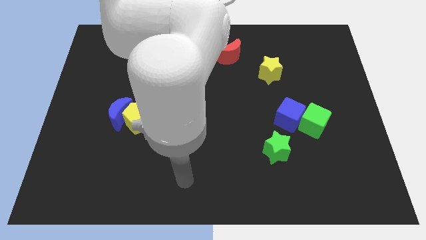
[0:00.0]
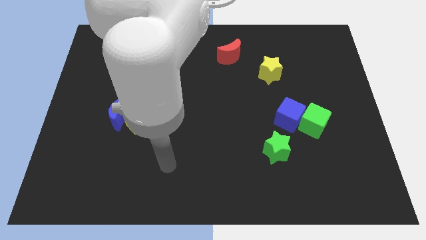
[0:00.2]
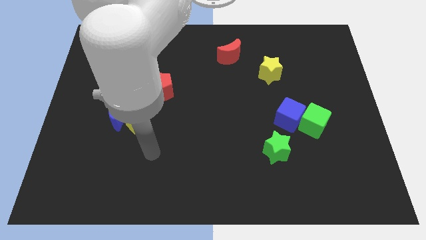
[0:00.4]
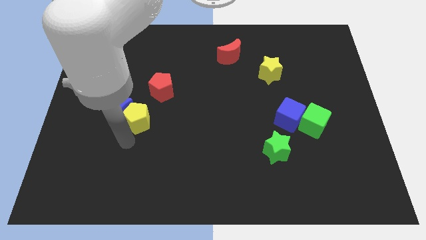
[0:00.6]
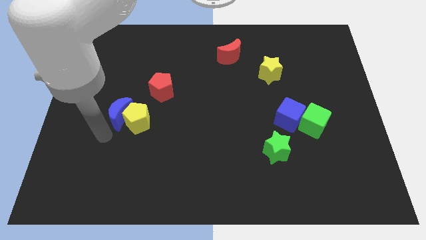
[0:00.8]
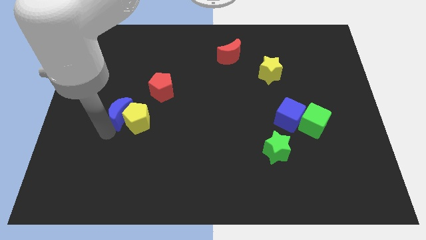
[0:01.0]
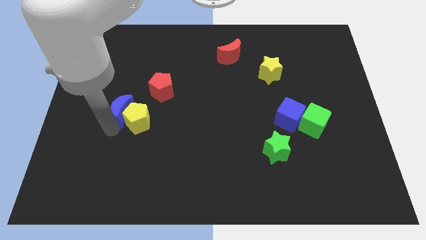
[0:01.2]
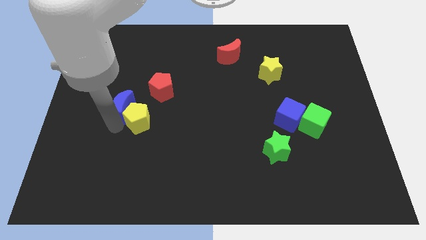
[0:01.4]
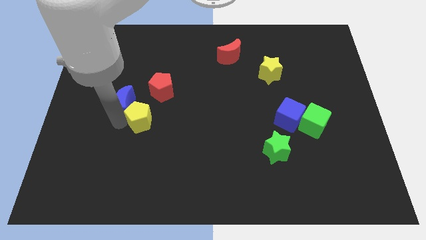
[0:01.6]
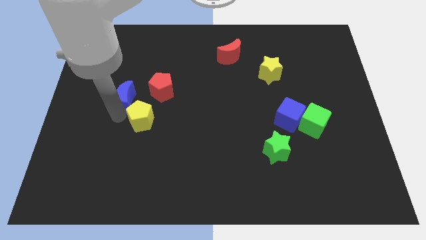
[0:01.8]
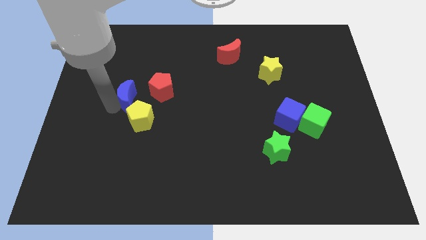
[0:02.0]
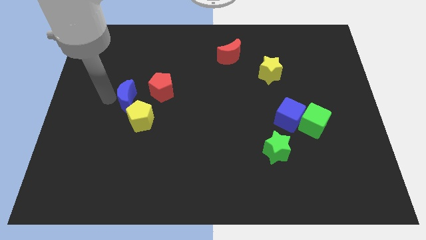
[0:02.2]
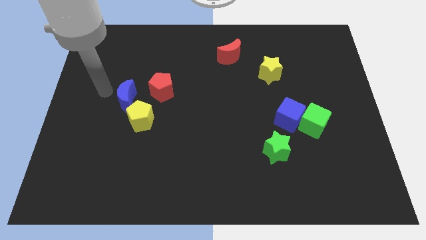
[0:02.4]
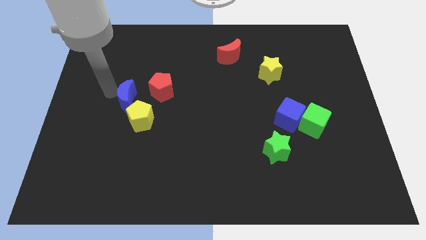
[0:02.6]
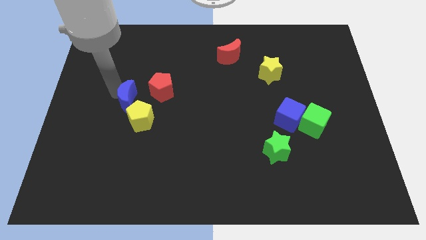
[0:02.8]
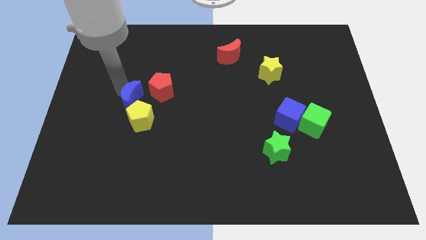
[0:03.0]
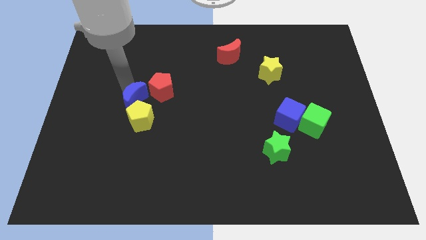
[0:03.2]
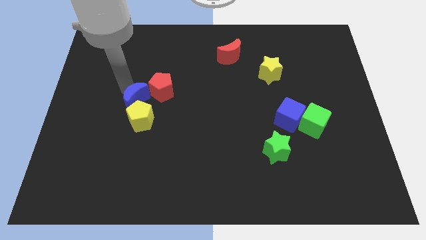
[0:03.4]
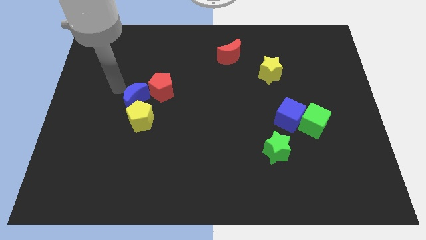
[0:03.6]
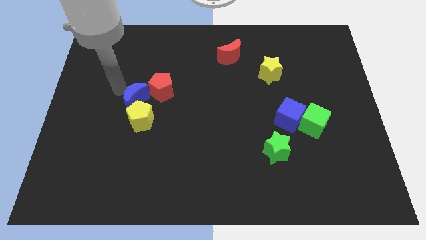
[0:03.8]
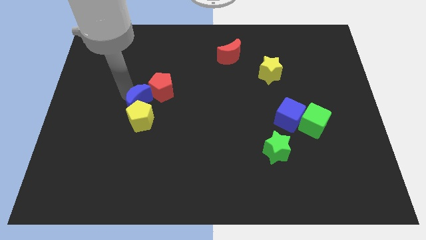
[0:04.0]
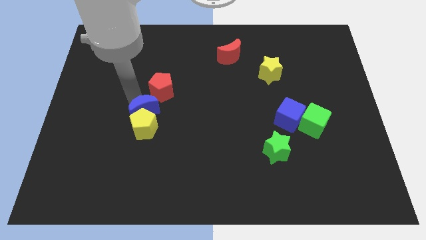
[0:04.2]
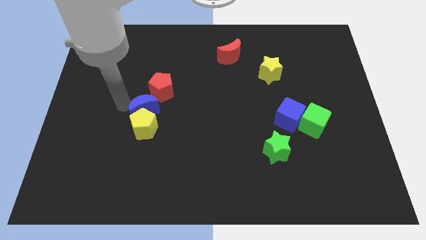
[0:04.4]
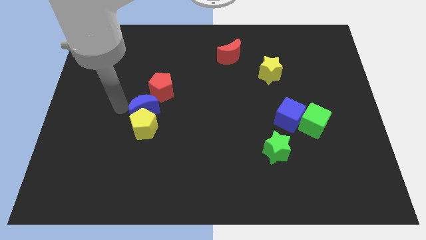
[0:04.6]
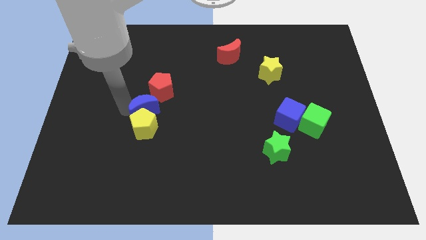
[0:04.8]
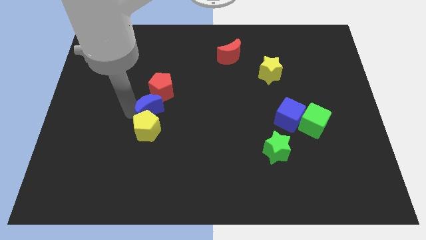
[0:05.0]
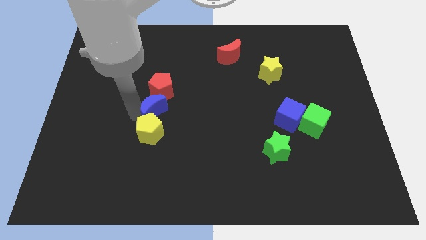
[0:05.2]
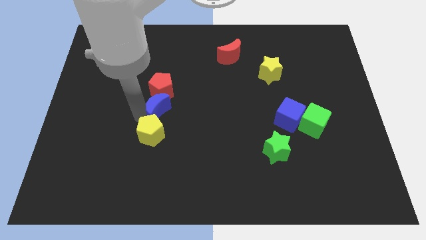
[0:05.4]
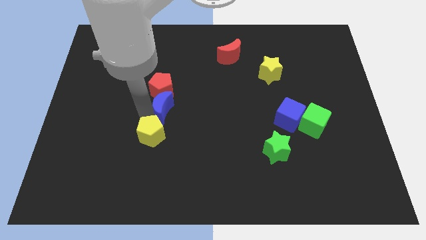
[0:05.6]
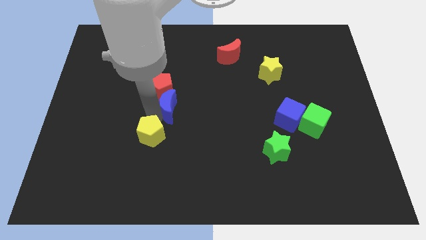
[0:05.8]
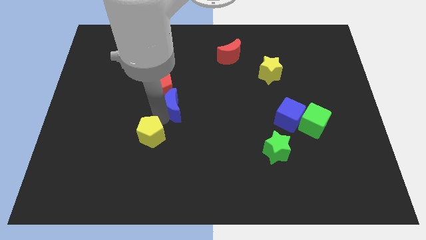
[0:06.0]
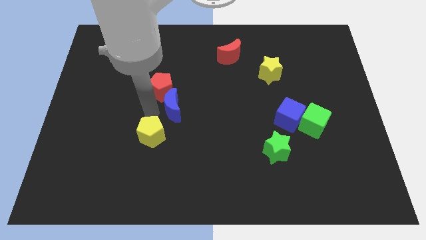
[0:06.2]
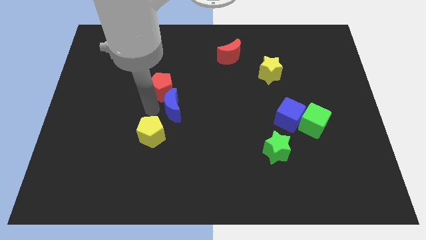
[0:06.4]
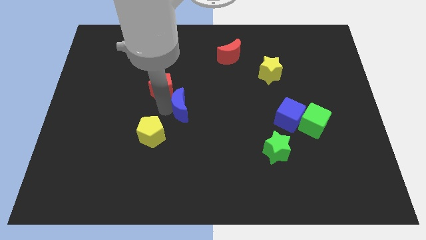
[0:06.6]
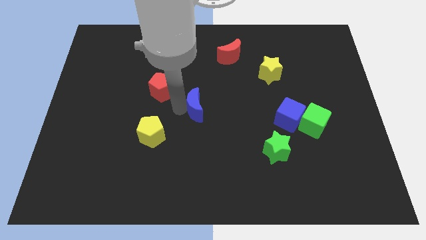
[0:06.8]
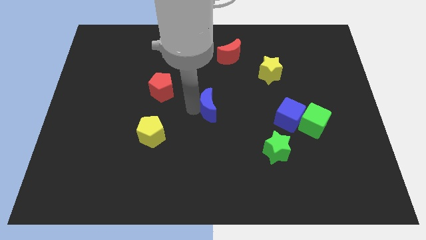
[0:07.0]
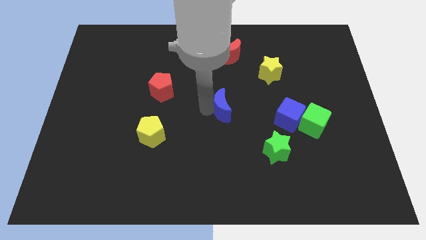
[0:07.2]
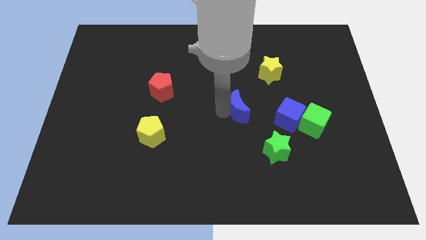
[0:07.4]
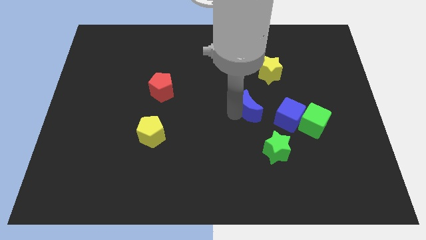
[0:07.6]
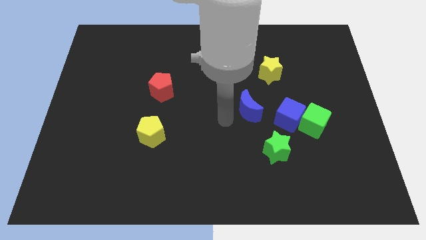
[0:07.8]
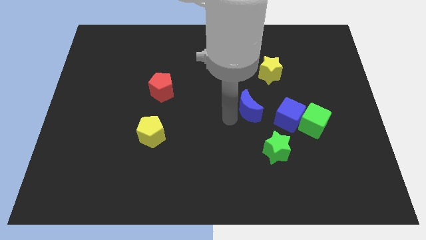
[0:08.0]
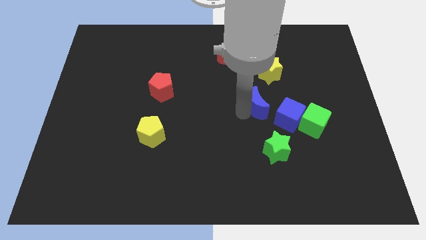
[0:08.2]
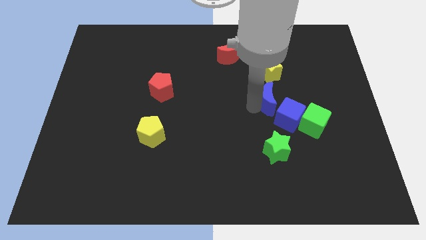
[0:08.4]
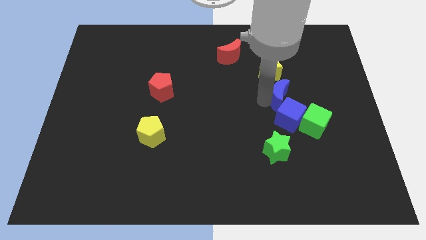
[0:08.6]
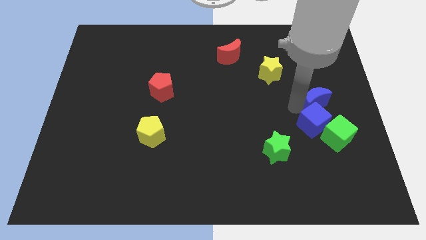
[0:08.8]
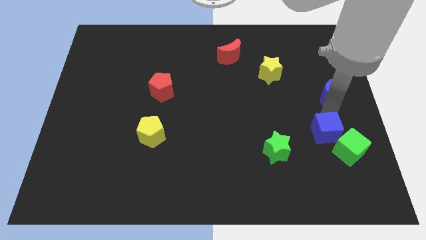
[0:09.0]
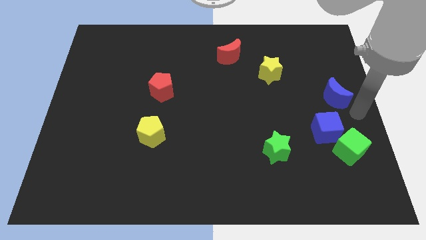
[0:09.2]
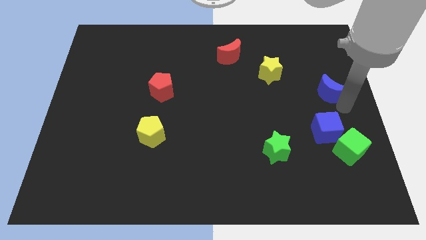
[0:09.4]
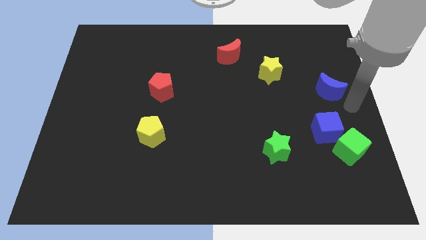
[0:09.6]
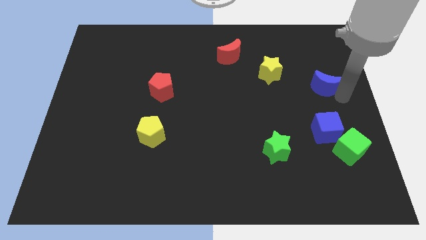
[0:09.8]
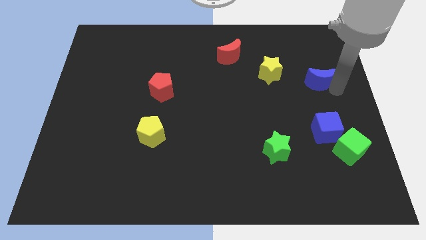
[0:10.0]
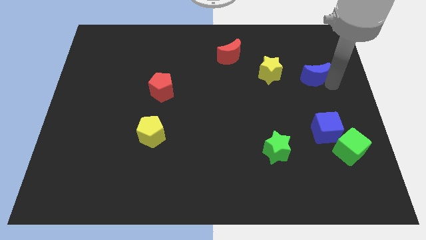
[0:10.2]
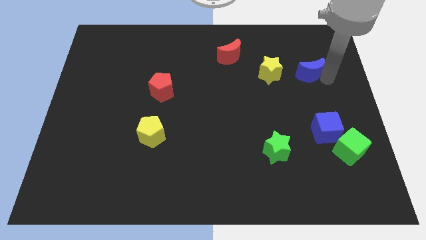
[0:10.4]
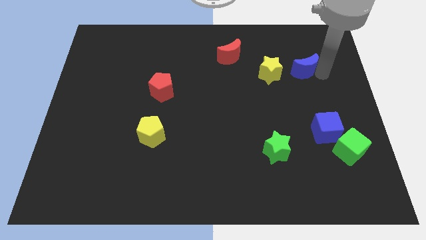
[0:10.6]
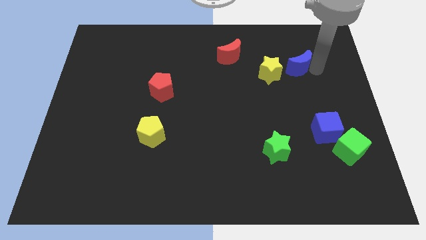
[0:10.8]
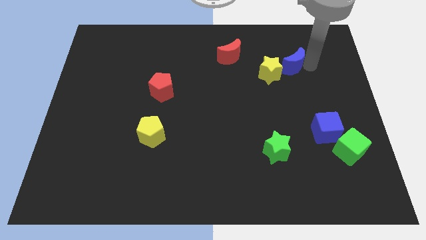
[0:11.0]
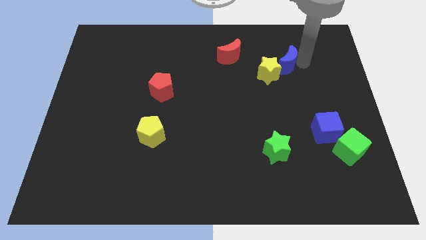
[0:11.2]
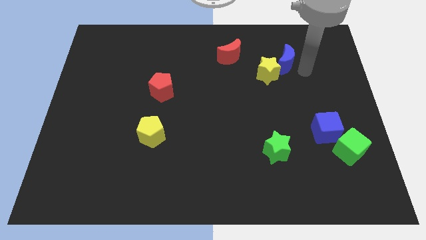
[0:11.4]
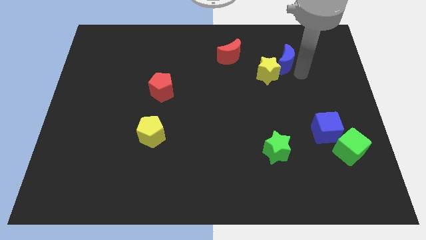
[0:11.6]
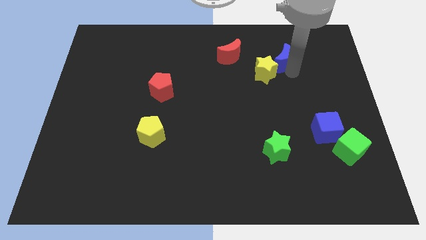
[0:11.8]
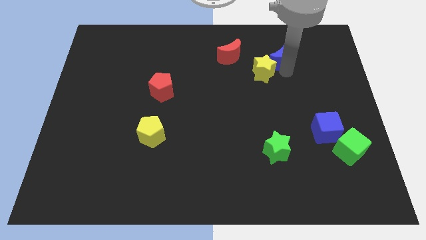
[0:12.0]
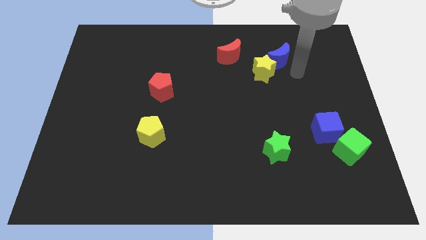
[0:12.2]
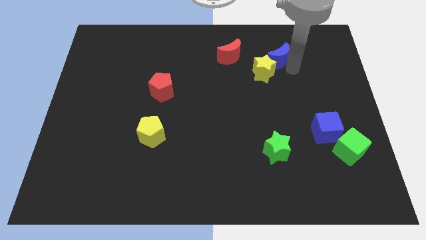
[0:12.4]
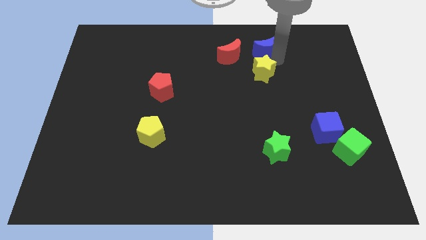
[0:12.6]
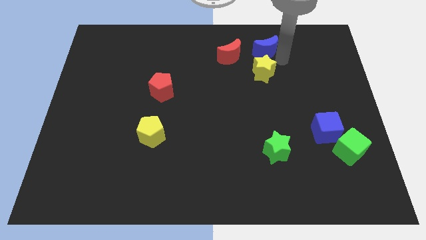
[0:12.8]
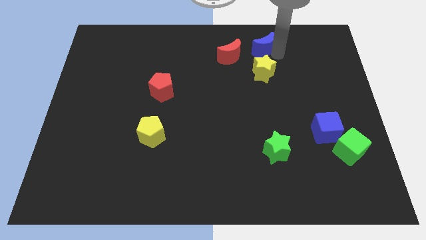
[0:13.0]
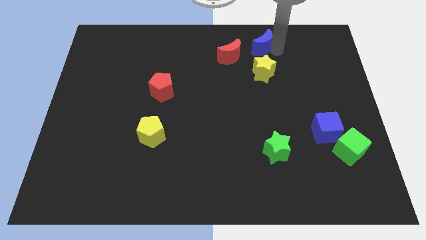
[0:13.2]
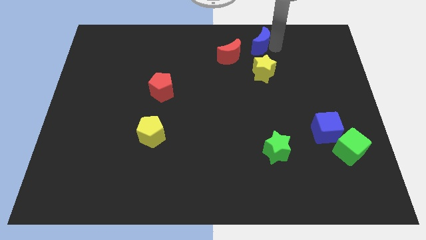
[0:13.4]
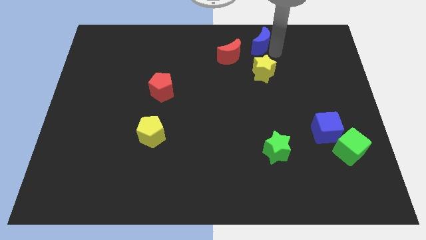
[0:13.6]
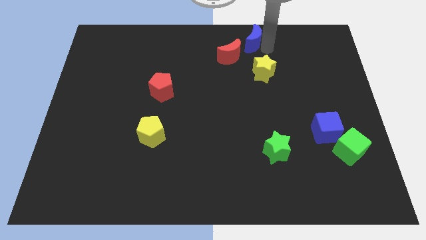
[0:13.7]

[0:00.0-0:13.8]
move the blue moon to the towards your base
